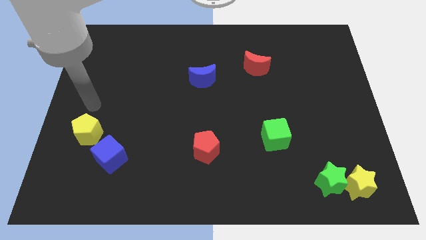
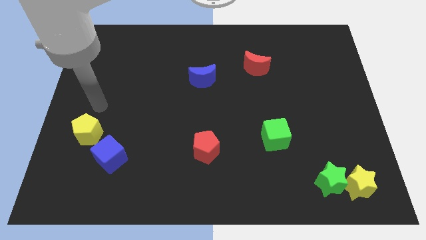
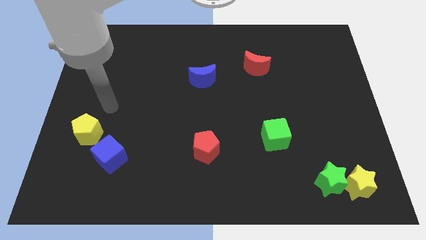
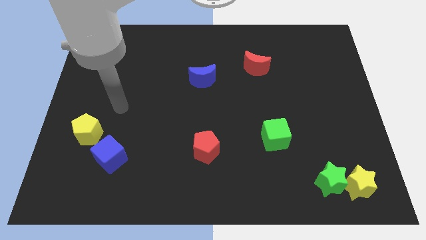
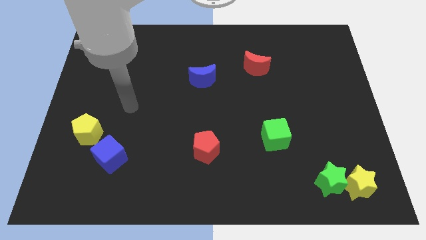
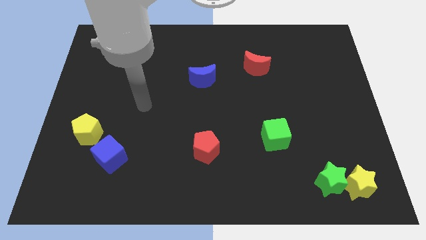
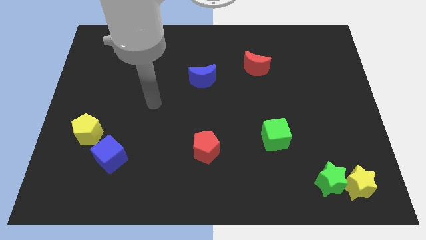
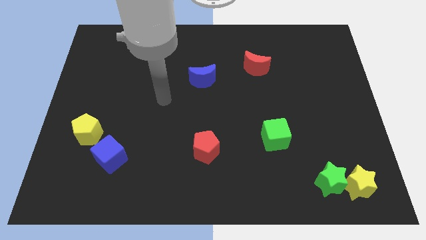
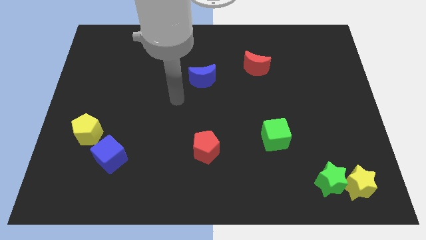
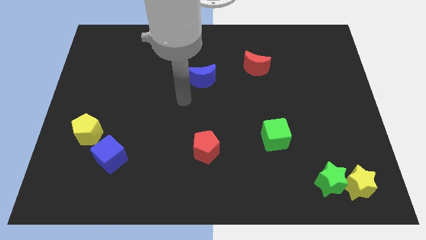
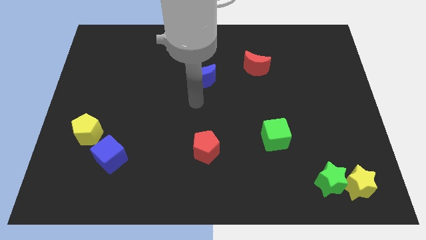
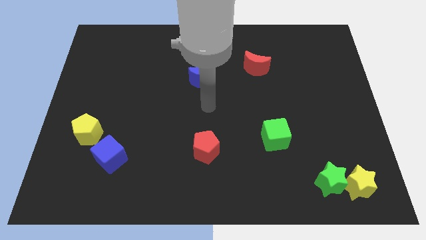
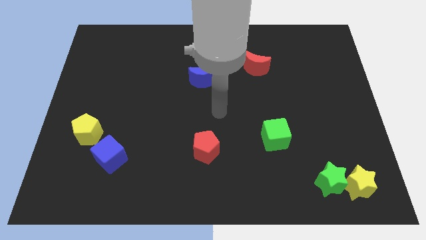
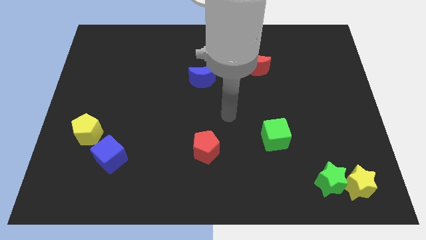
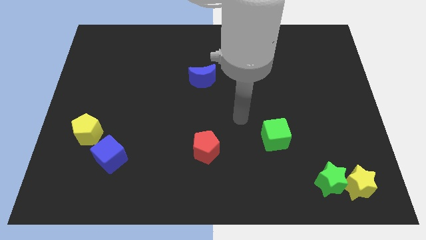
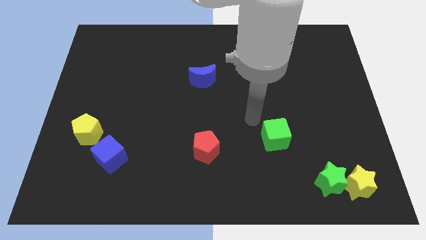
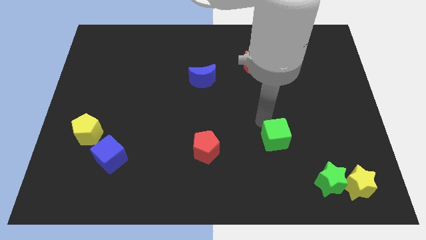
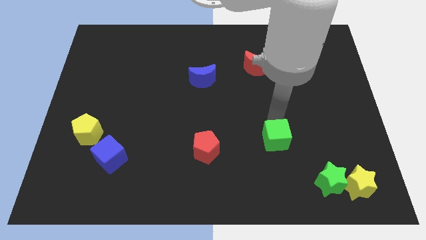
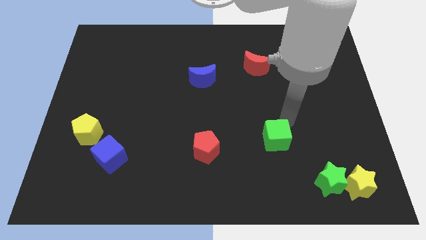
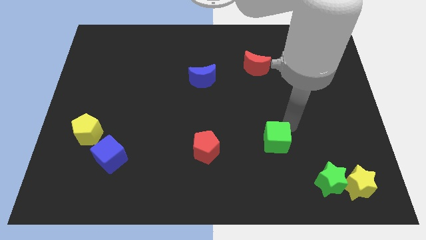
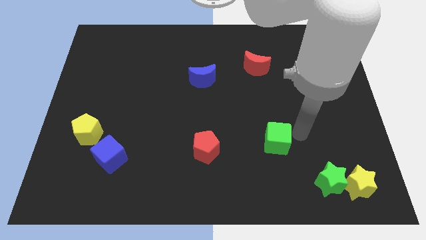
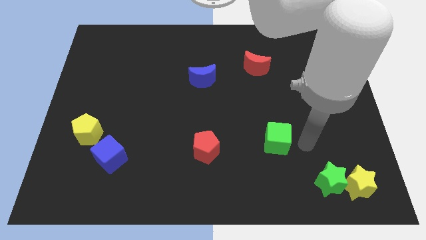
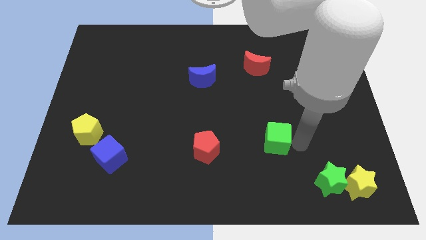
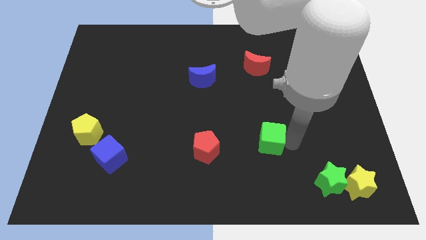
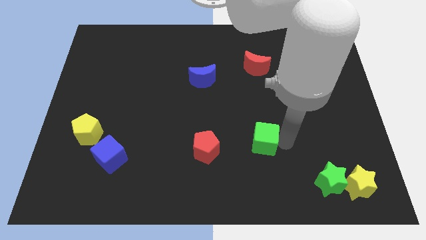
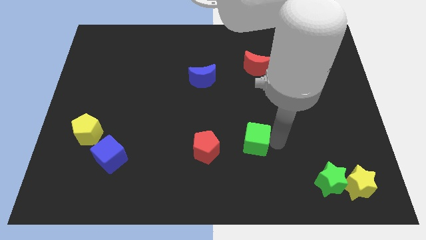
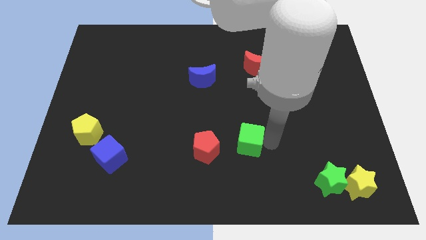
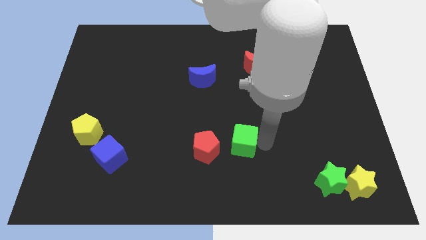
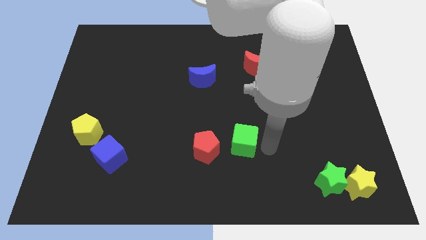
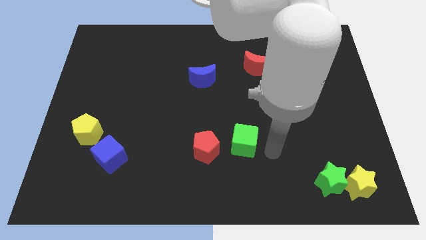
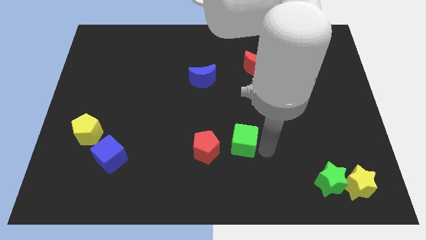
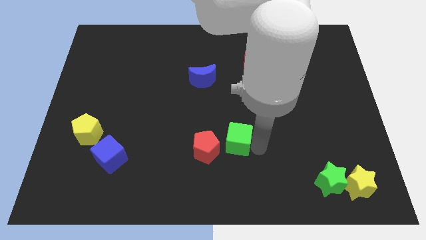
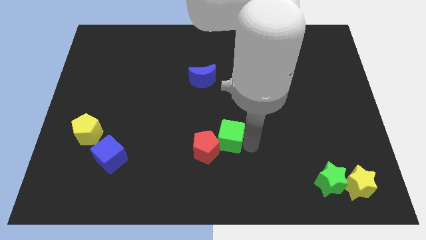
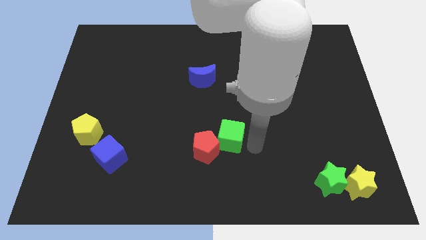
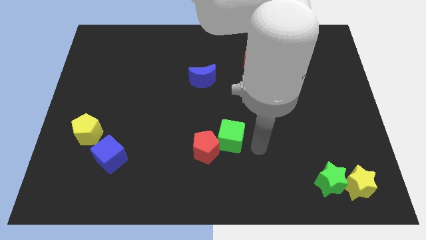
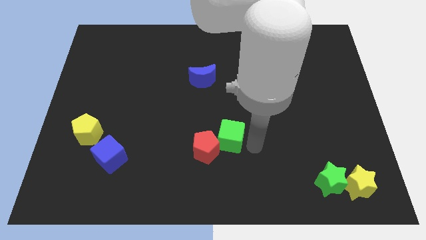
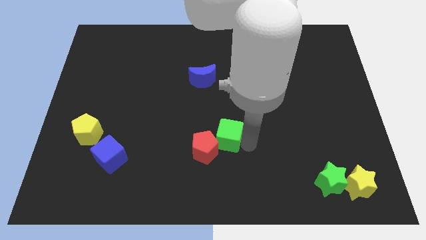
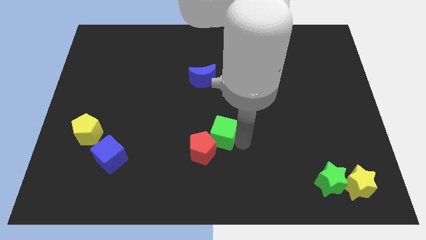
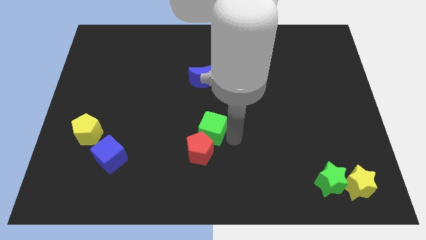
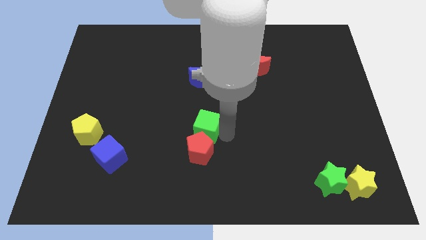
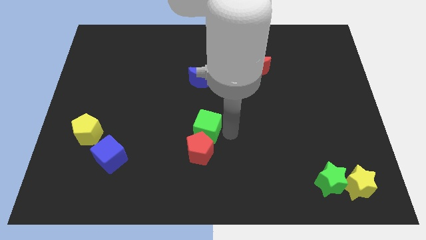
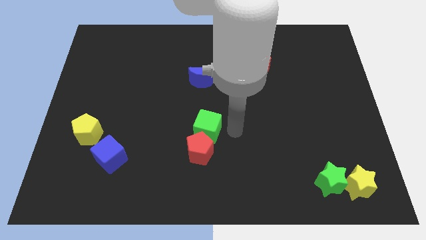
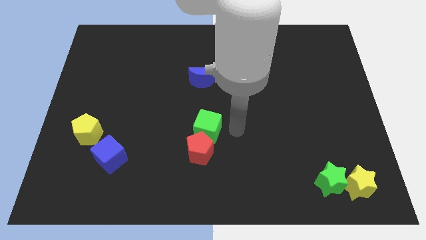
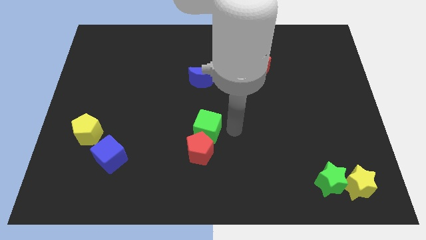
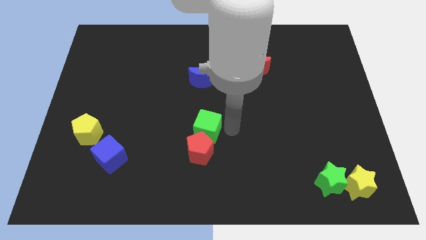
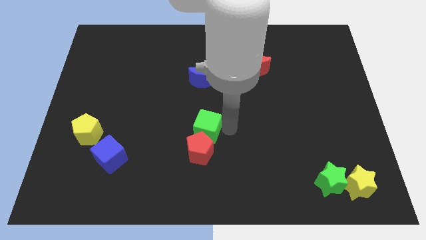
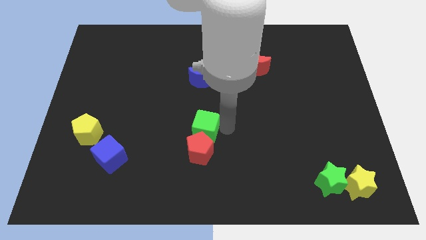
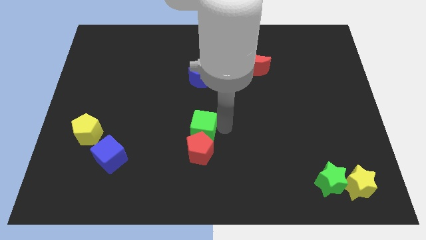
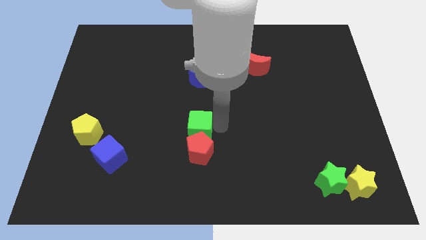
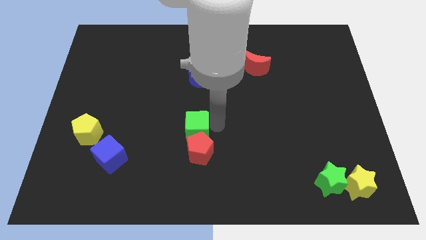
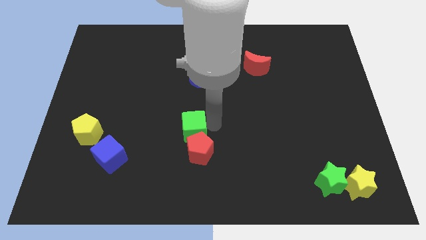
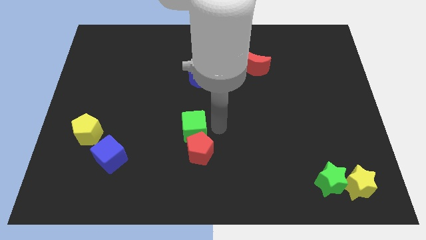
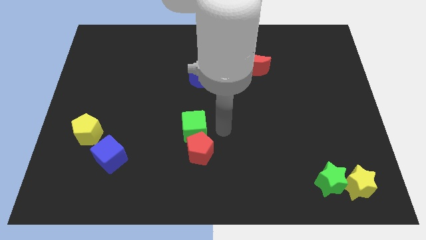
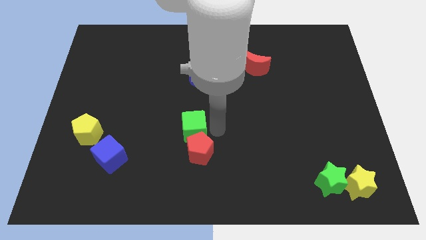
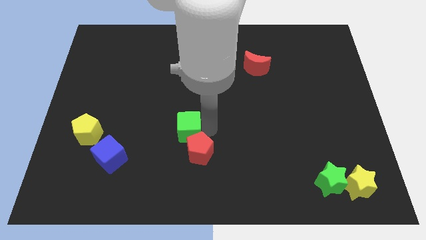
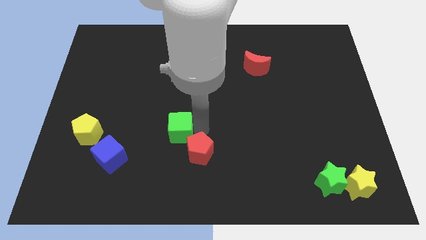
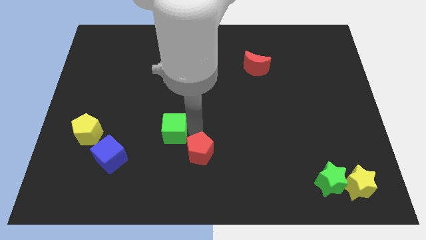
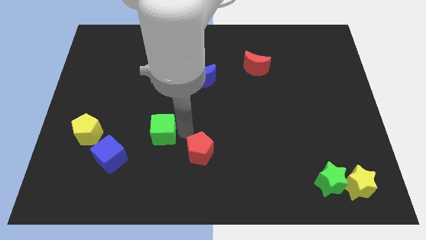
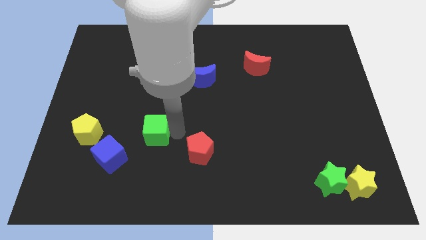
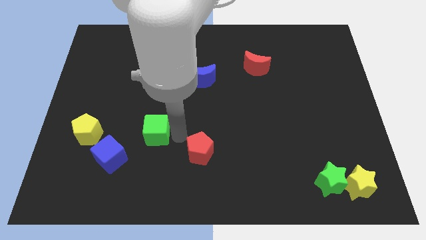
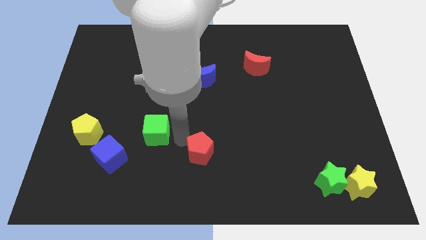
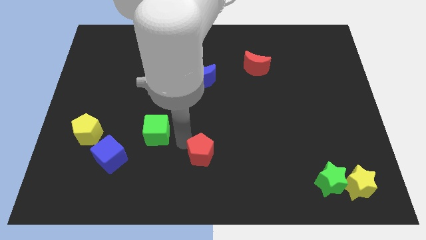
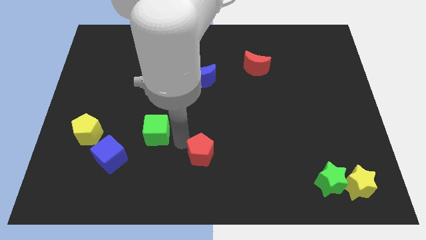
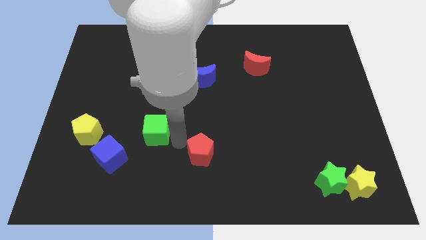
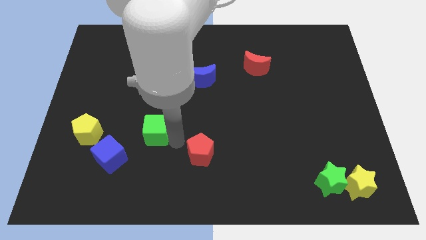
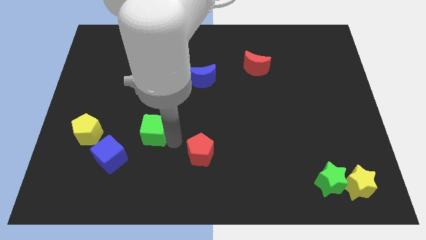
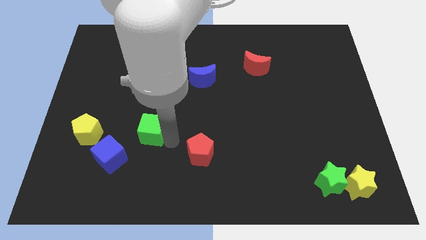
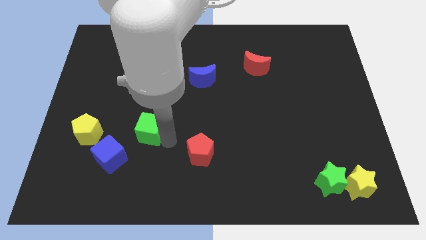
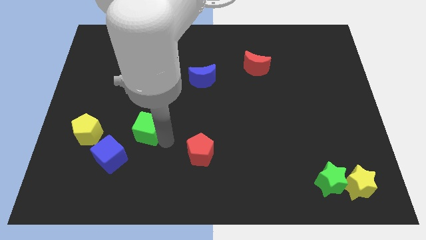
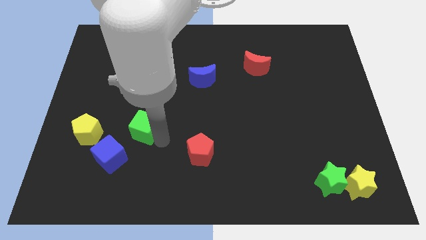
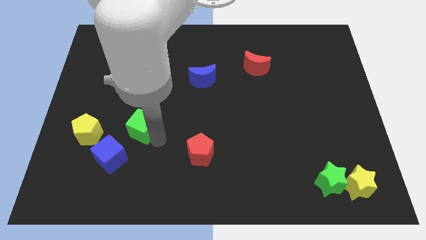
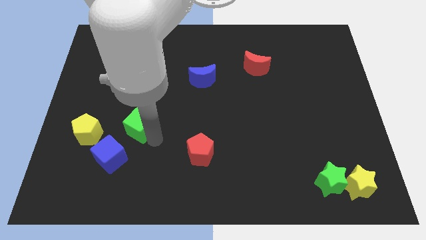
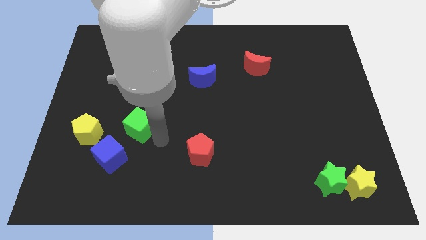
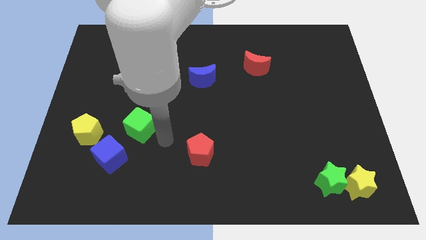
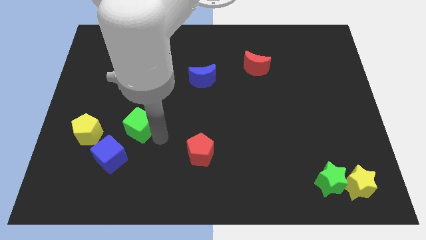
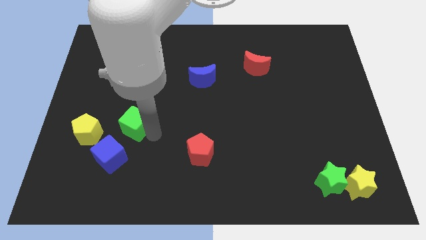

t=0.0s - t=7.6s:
slide the green cube above the blue cube

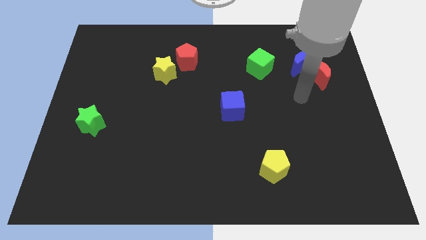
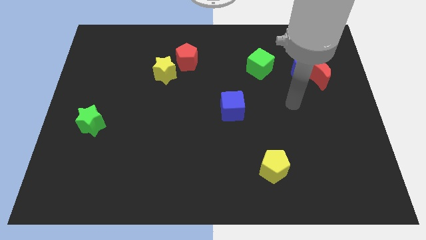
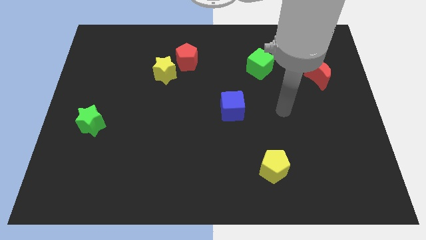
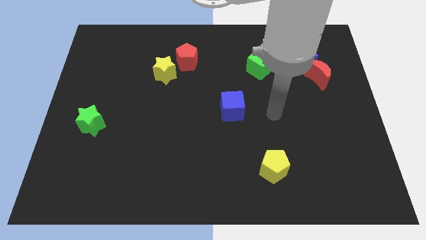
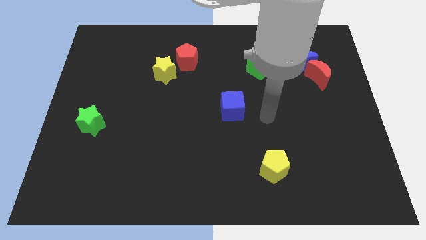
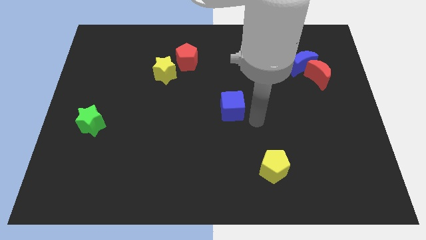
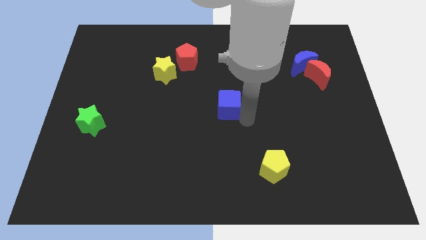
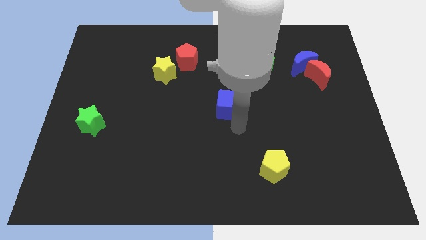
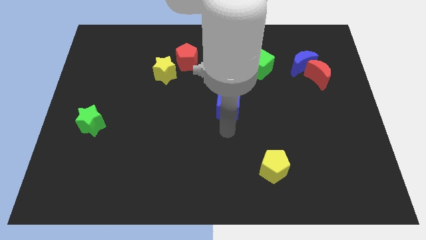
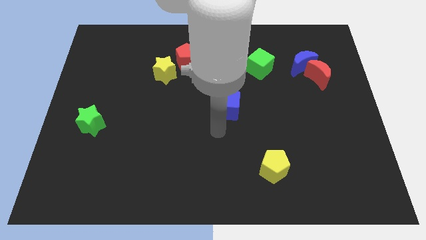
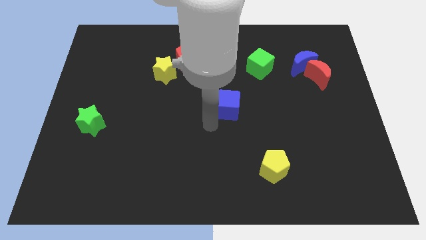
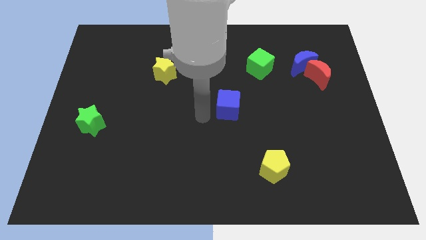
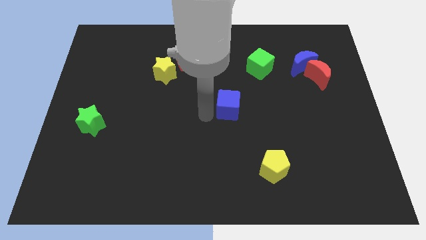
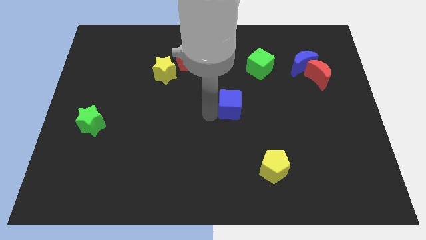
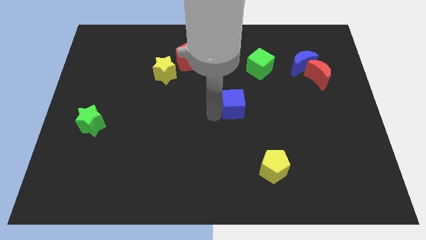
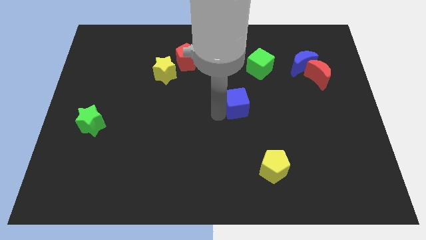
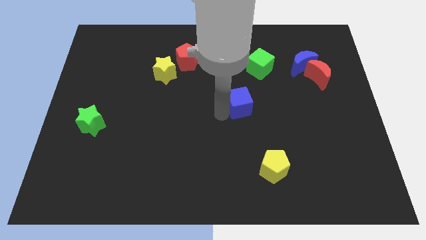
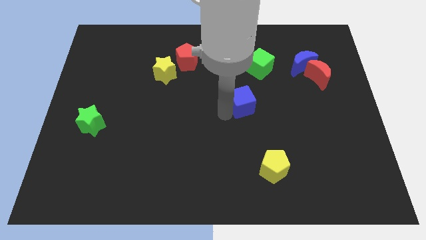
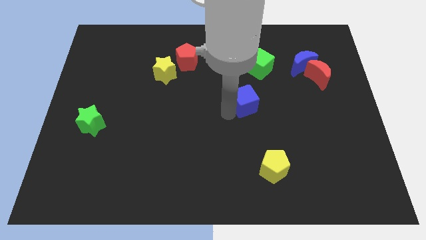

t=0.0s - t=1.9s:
slide the blue cube below the green cube
